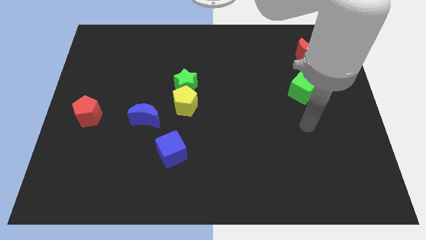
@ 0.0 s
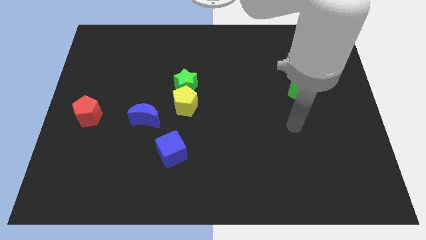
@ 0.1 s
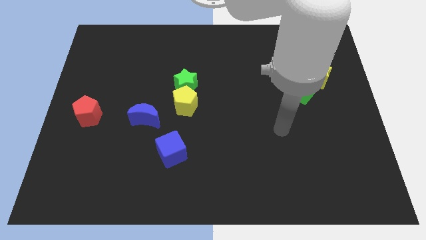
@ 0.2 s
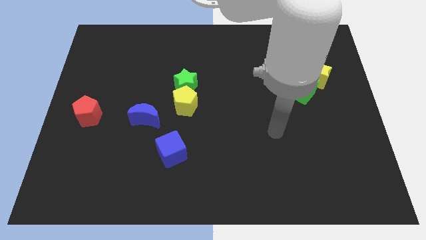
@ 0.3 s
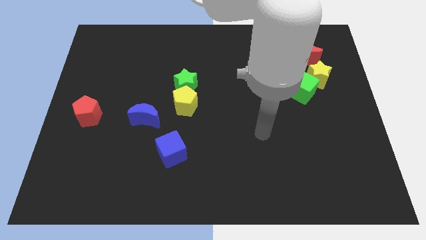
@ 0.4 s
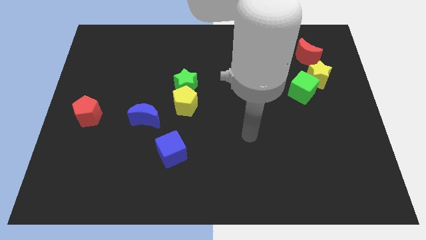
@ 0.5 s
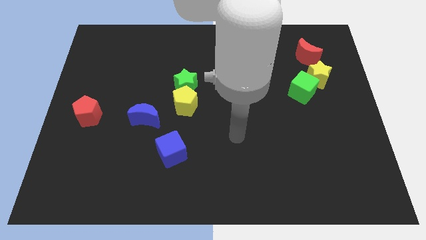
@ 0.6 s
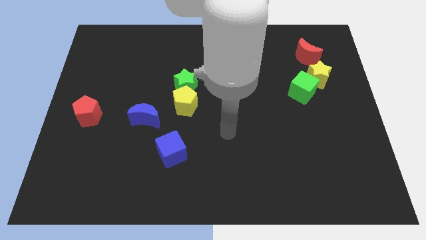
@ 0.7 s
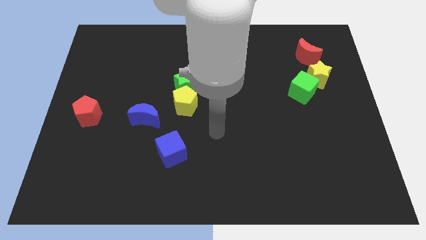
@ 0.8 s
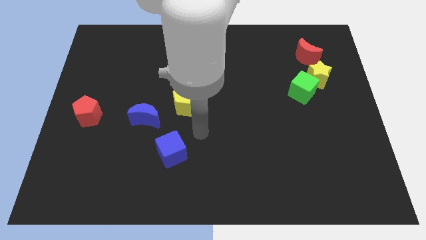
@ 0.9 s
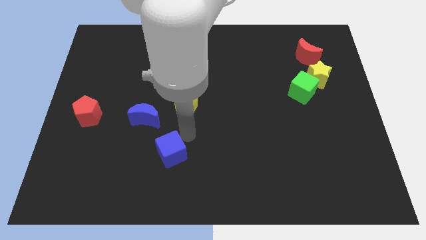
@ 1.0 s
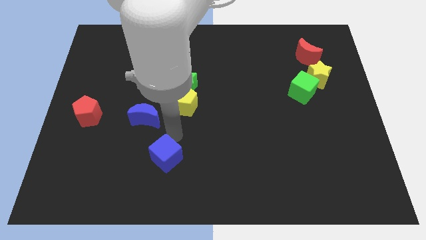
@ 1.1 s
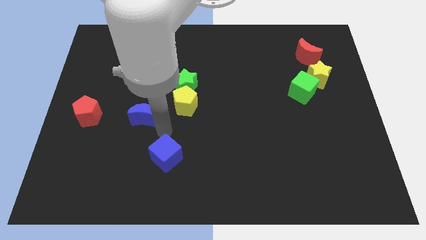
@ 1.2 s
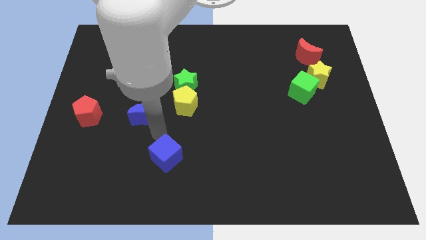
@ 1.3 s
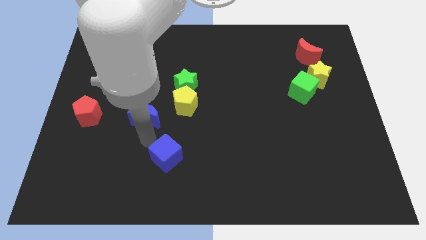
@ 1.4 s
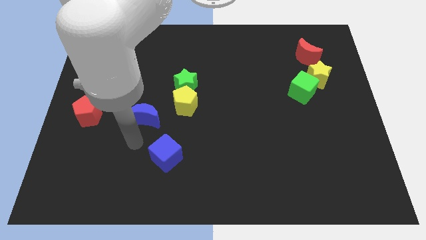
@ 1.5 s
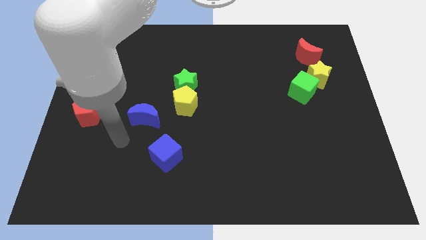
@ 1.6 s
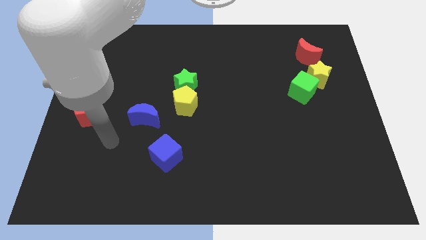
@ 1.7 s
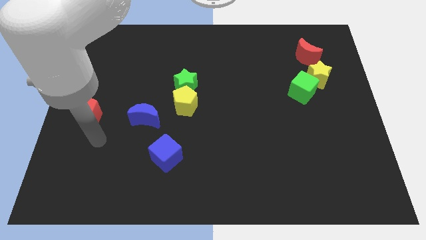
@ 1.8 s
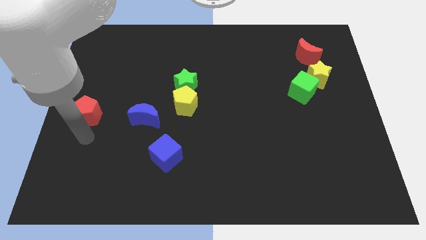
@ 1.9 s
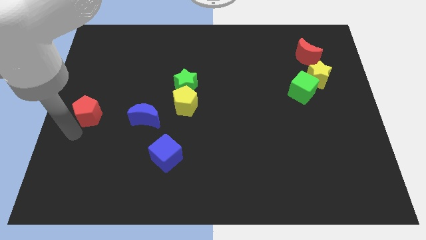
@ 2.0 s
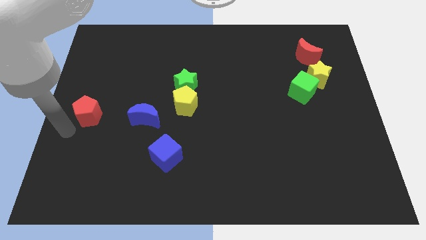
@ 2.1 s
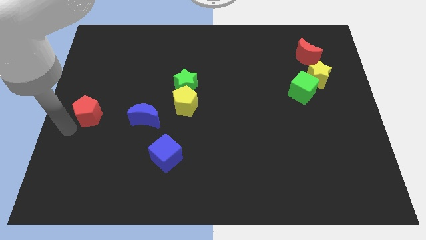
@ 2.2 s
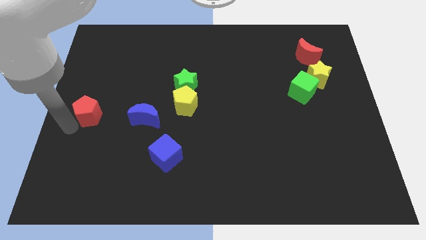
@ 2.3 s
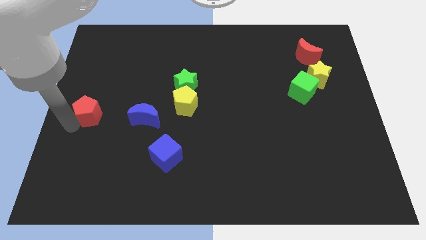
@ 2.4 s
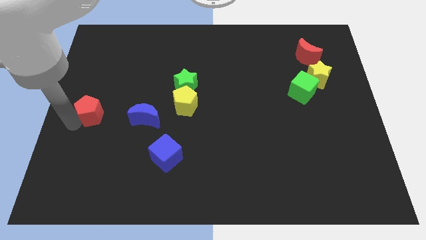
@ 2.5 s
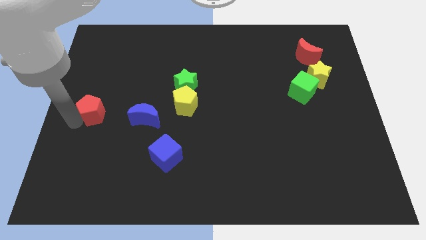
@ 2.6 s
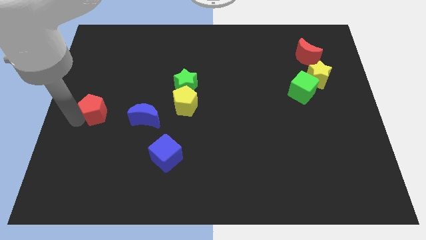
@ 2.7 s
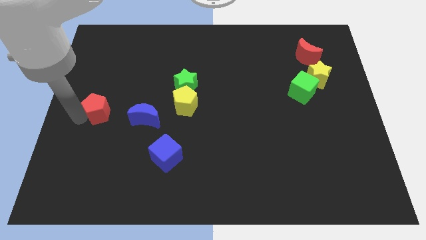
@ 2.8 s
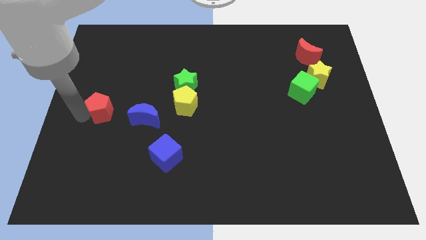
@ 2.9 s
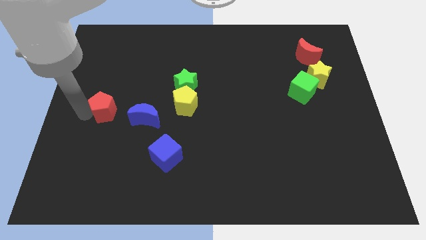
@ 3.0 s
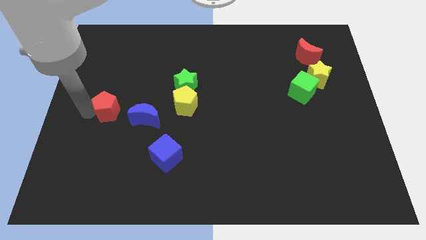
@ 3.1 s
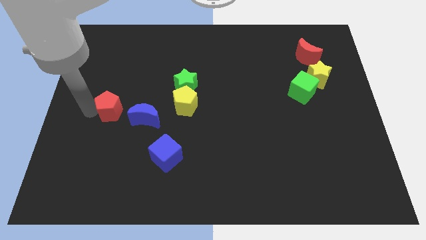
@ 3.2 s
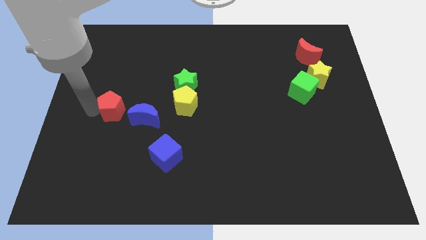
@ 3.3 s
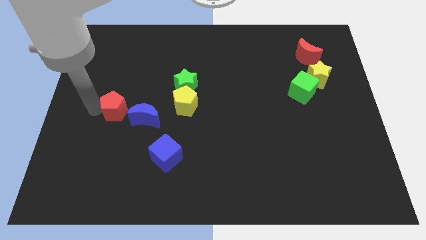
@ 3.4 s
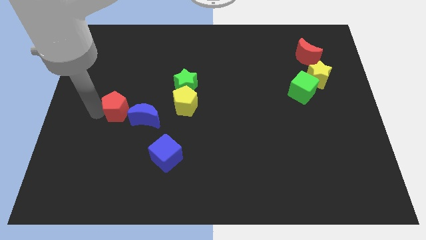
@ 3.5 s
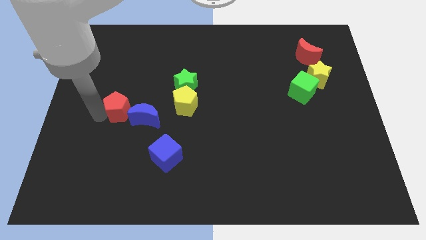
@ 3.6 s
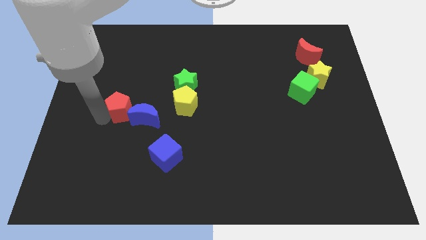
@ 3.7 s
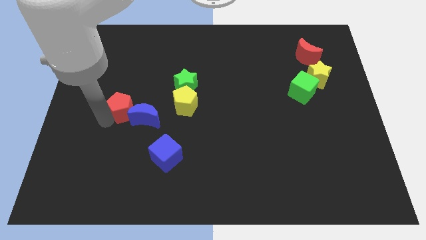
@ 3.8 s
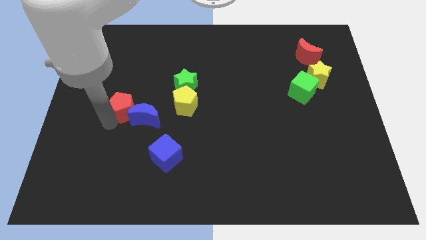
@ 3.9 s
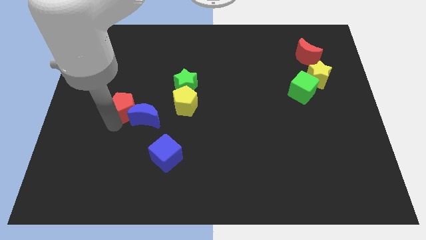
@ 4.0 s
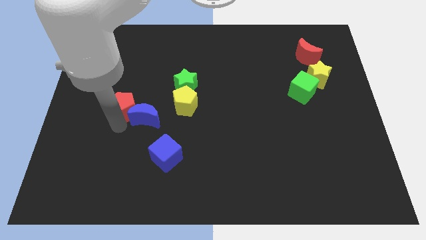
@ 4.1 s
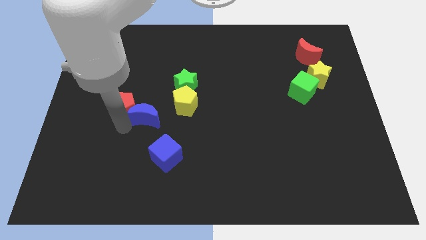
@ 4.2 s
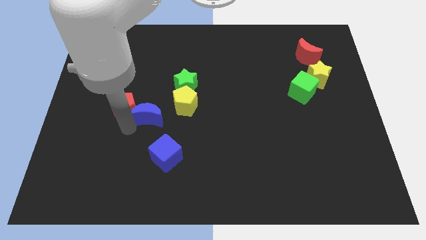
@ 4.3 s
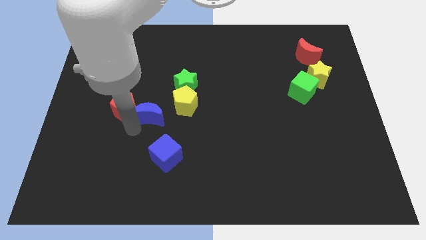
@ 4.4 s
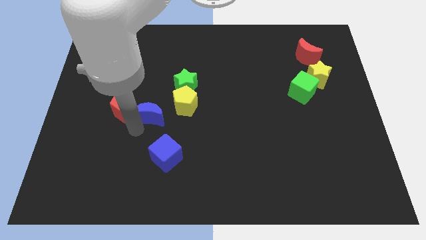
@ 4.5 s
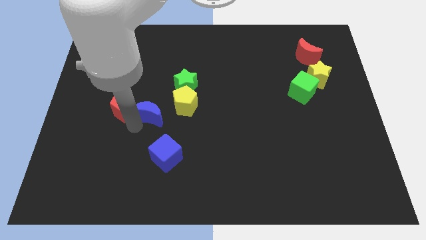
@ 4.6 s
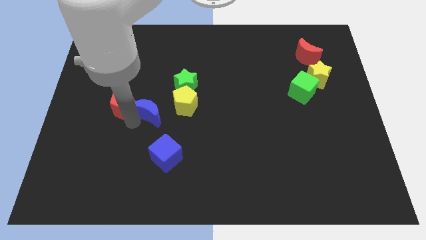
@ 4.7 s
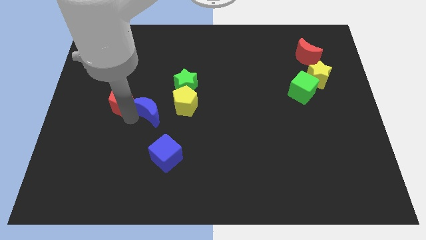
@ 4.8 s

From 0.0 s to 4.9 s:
push the red pentagon somewhat up and to the right diagonally

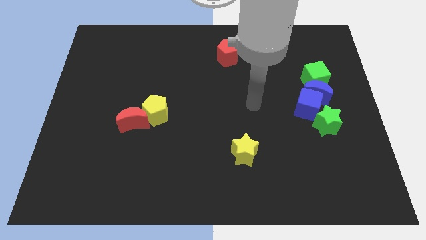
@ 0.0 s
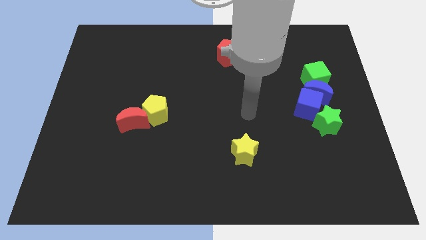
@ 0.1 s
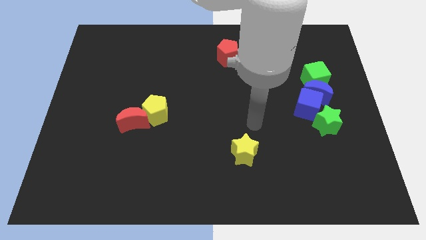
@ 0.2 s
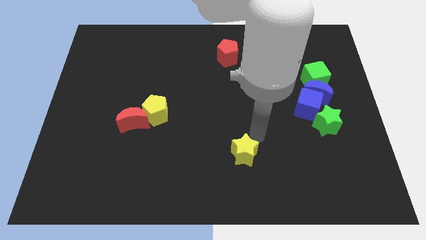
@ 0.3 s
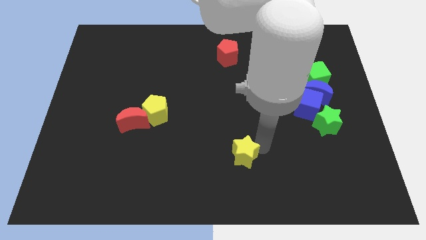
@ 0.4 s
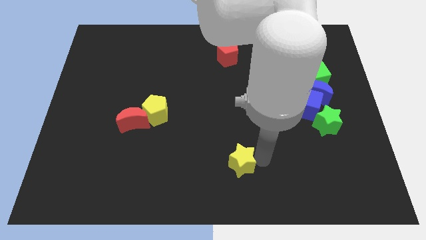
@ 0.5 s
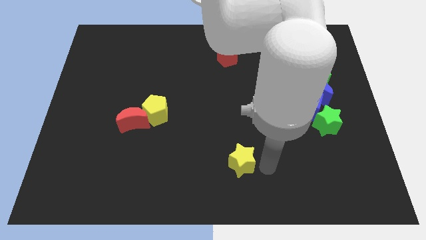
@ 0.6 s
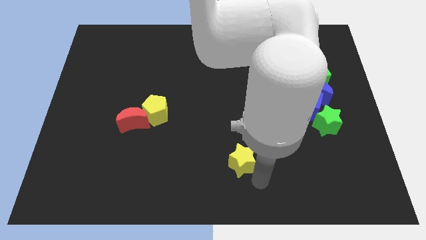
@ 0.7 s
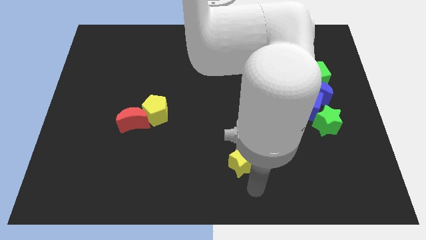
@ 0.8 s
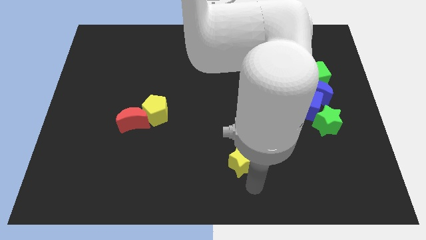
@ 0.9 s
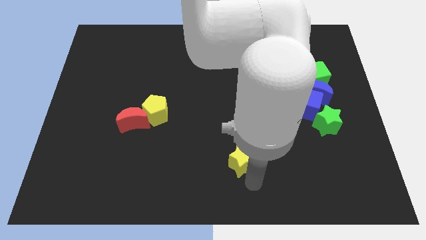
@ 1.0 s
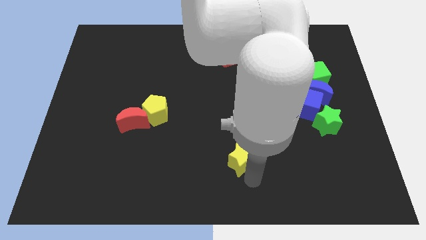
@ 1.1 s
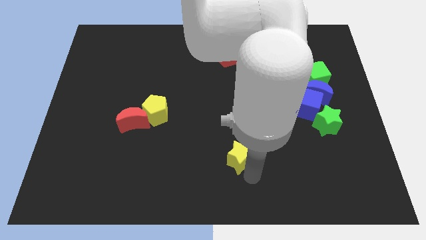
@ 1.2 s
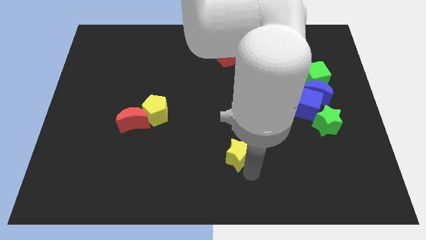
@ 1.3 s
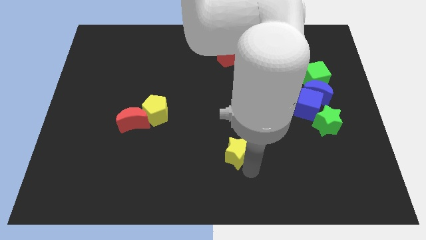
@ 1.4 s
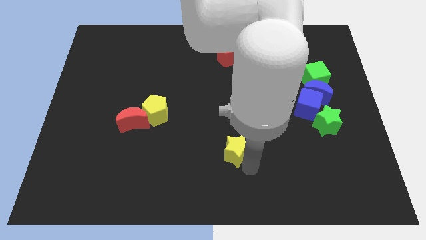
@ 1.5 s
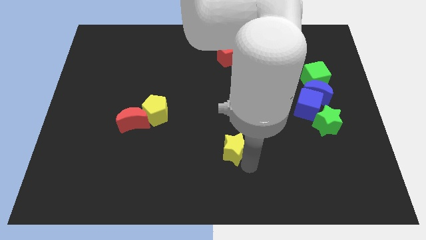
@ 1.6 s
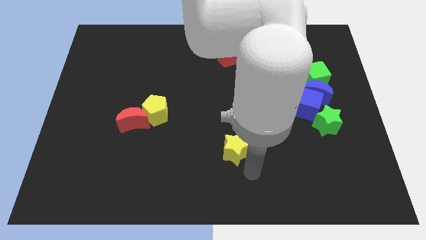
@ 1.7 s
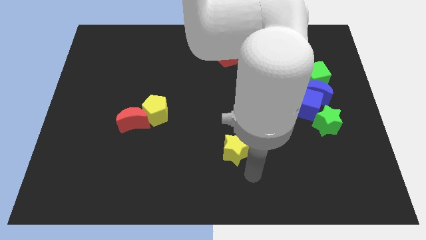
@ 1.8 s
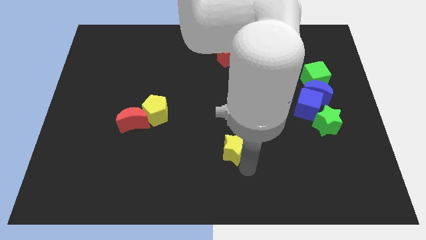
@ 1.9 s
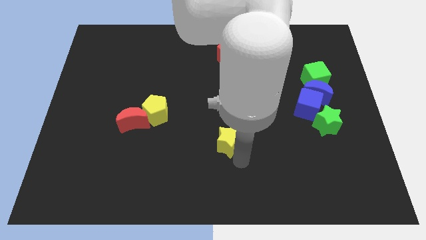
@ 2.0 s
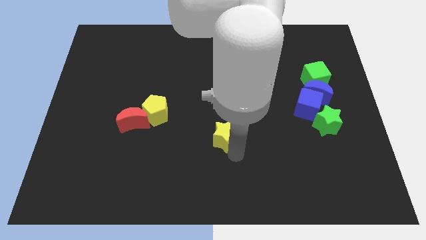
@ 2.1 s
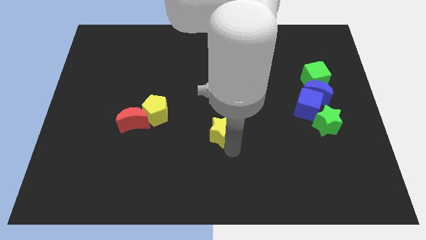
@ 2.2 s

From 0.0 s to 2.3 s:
push the yellow star upwards and to the left diagonally a little

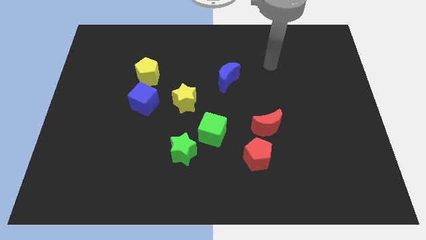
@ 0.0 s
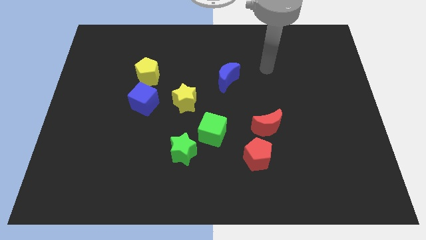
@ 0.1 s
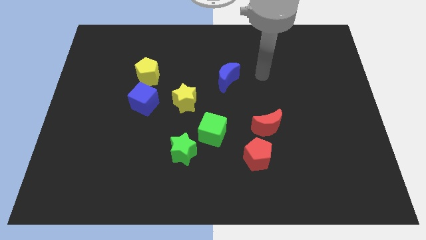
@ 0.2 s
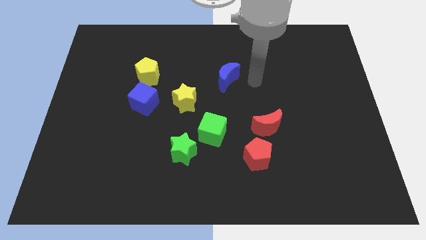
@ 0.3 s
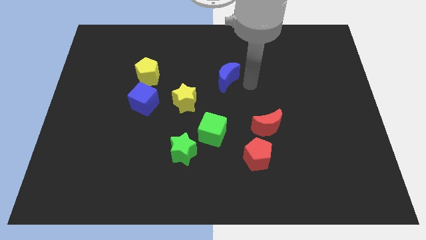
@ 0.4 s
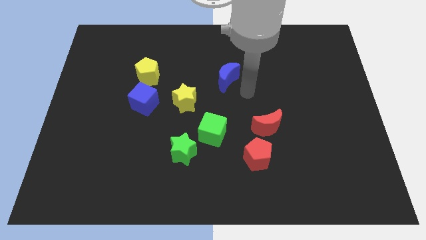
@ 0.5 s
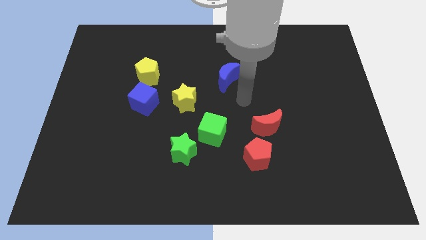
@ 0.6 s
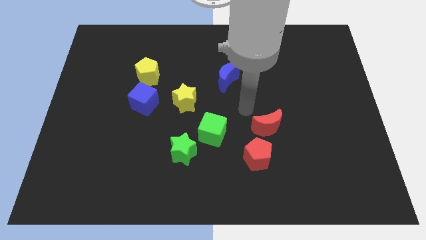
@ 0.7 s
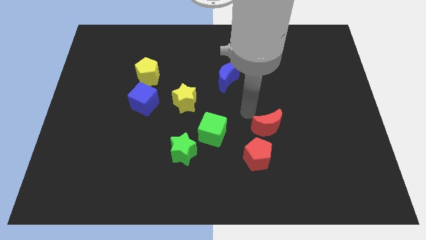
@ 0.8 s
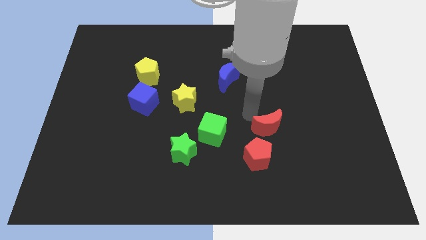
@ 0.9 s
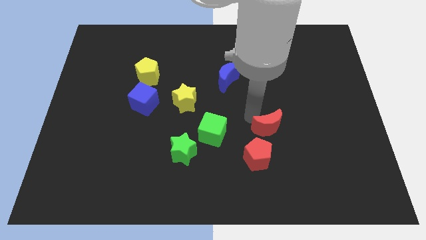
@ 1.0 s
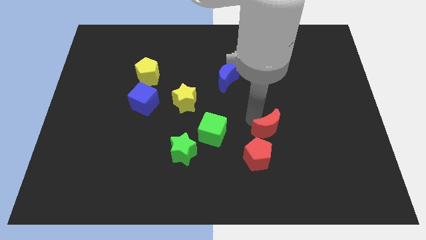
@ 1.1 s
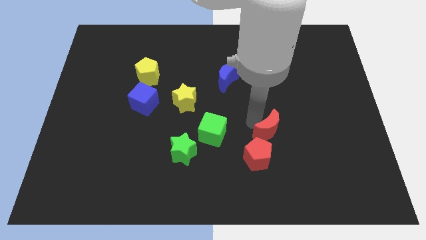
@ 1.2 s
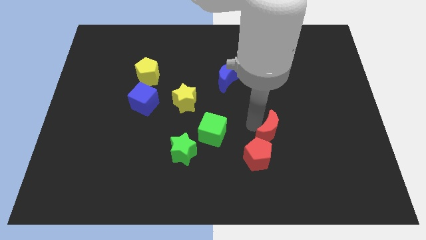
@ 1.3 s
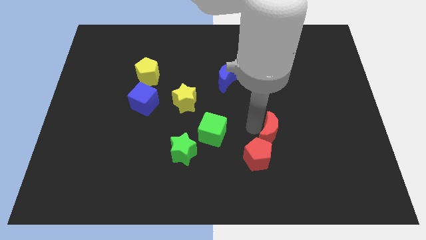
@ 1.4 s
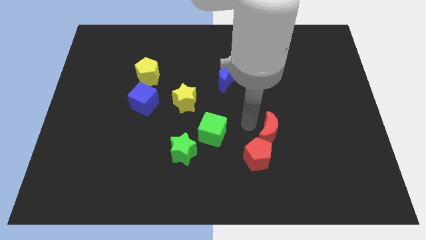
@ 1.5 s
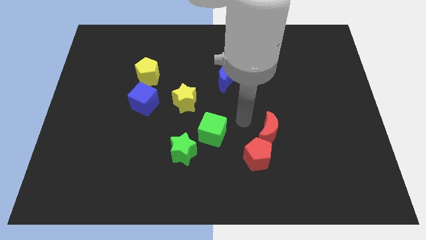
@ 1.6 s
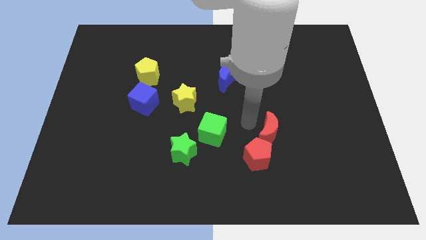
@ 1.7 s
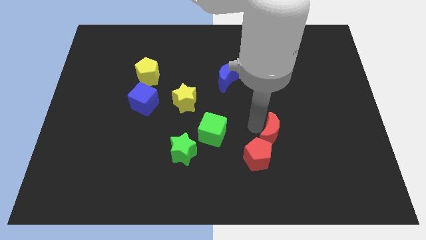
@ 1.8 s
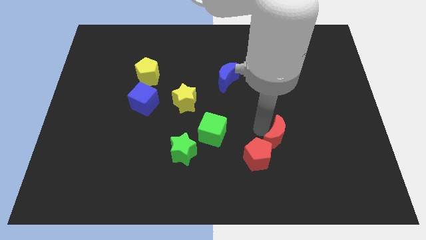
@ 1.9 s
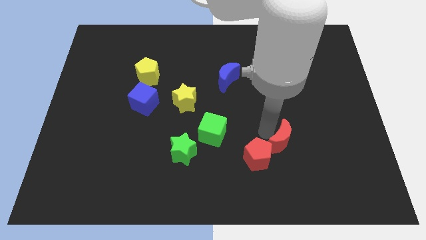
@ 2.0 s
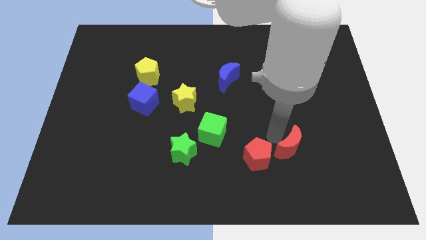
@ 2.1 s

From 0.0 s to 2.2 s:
slide the red moon a little bit down and then to the right
